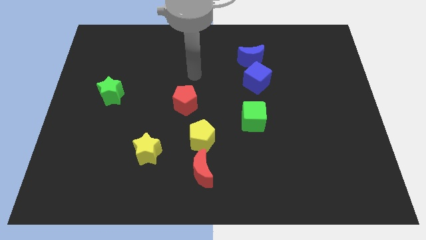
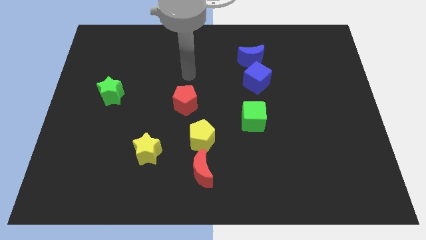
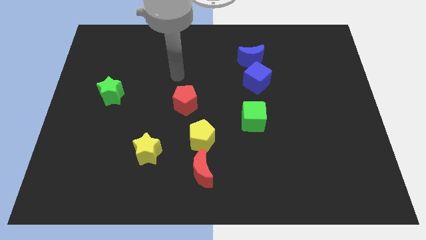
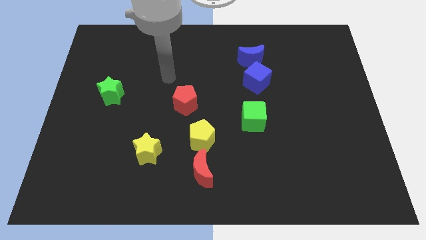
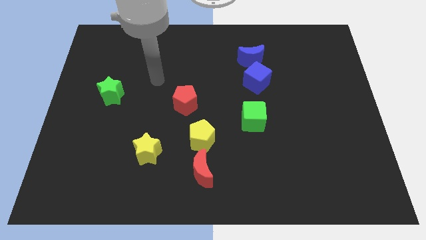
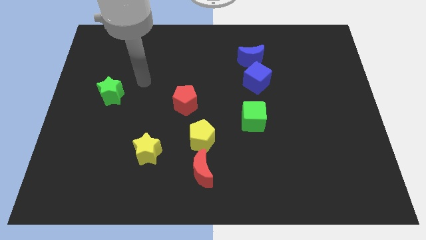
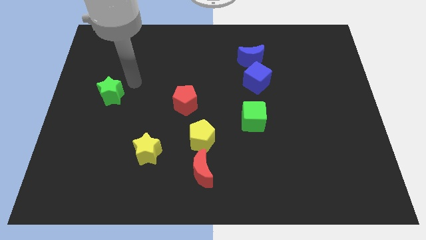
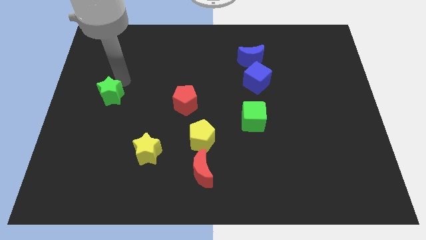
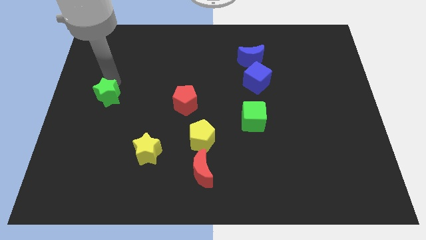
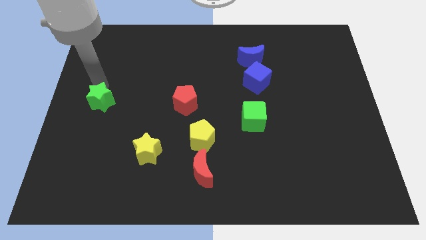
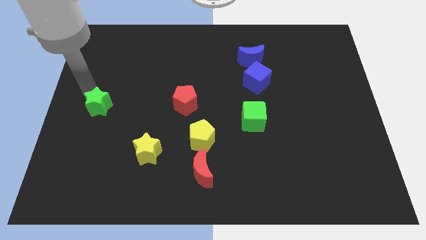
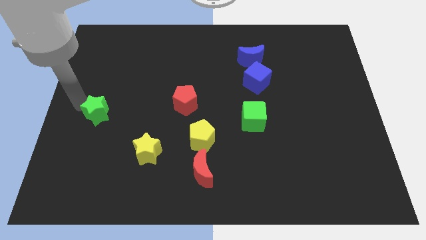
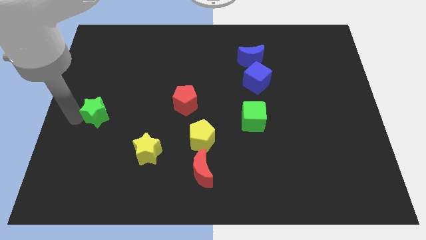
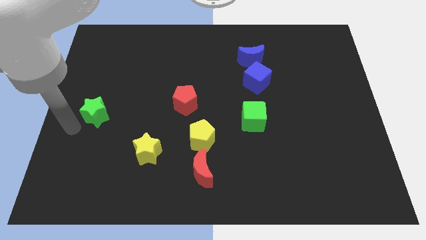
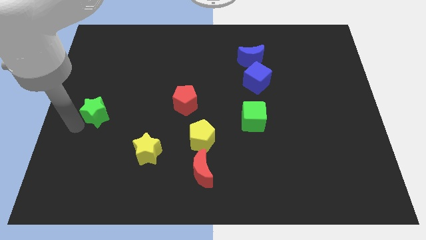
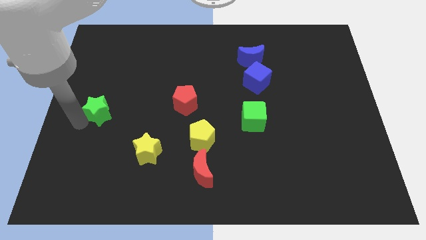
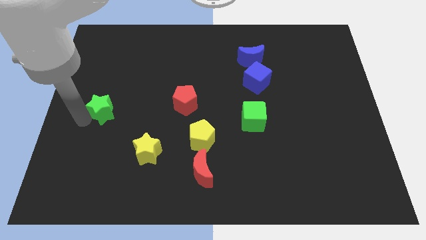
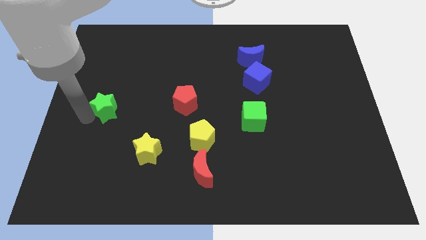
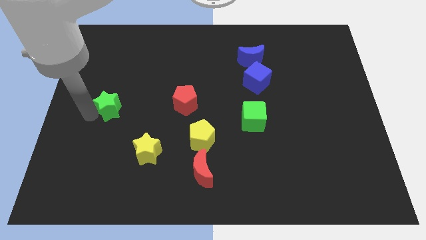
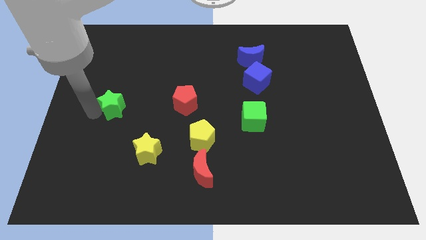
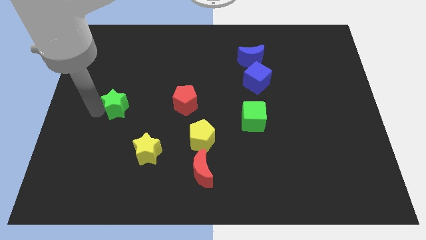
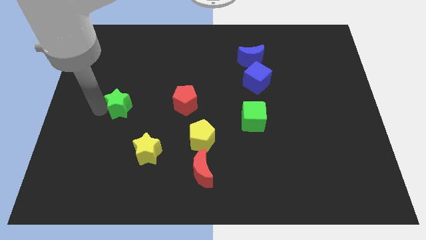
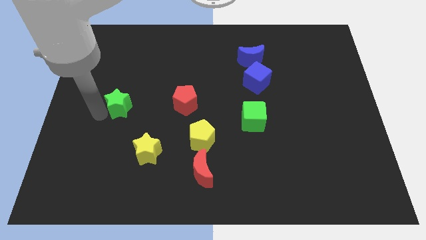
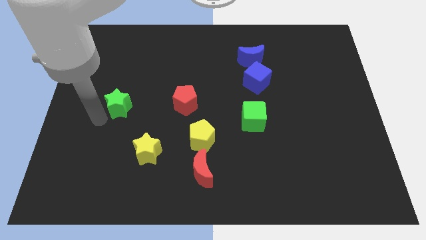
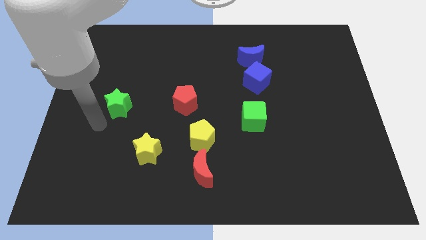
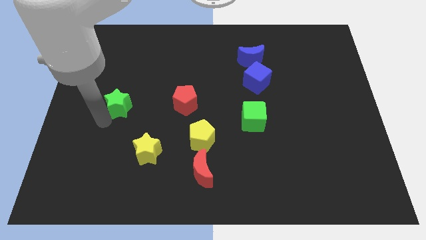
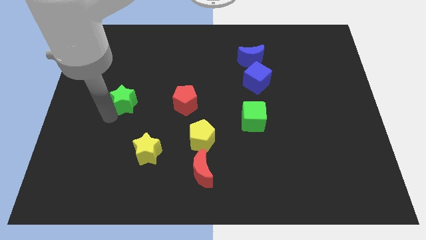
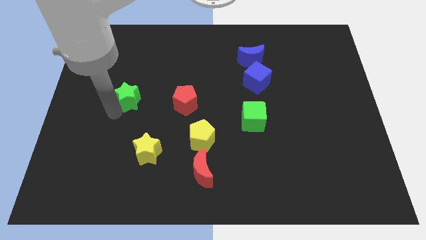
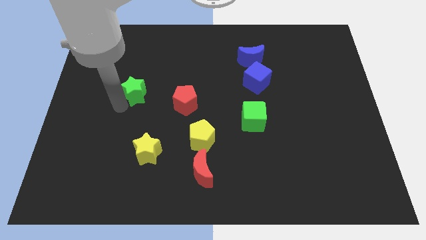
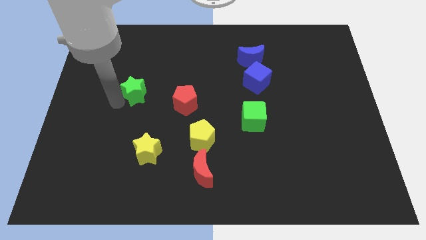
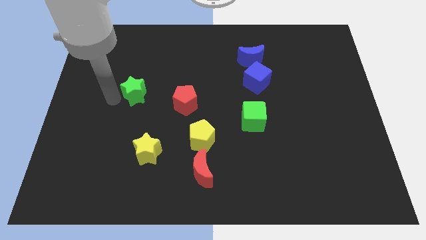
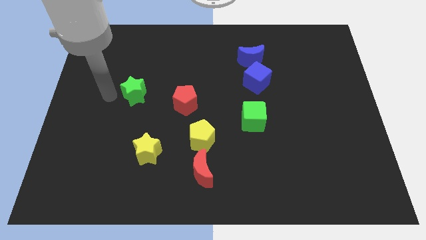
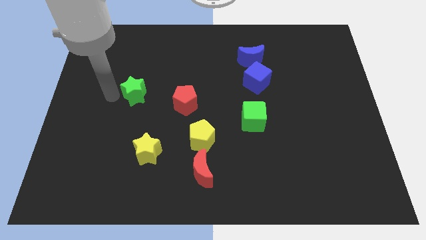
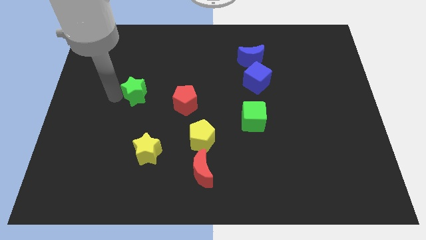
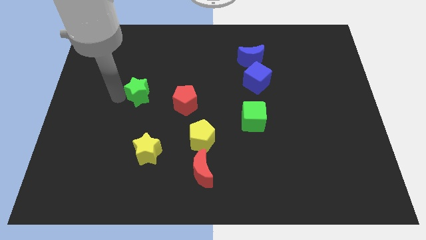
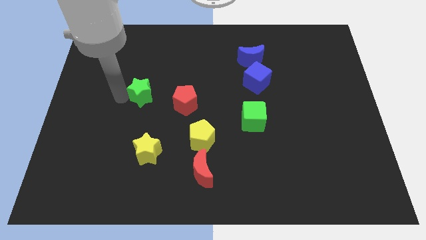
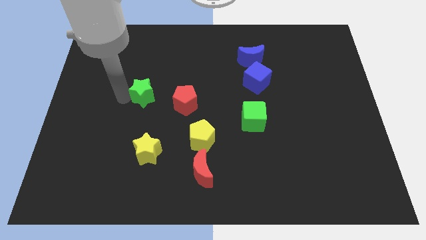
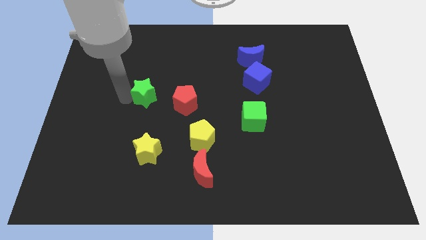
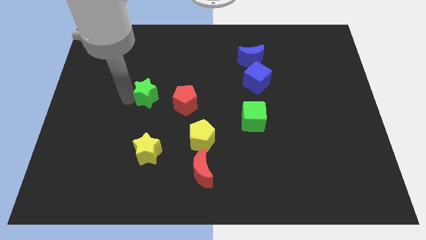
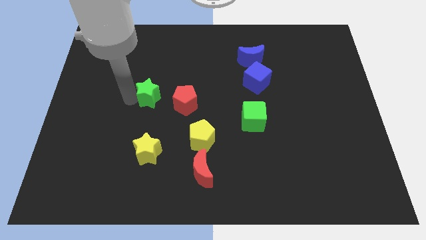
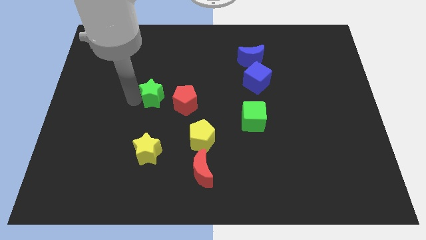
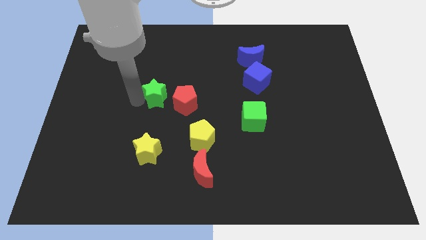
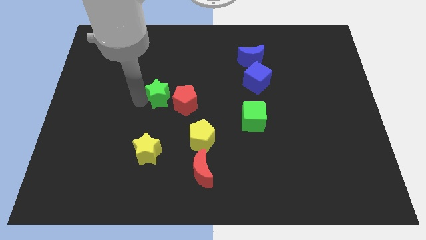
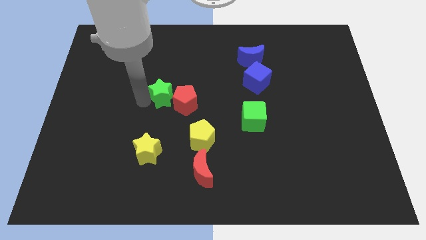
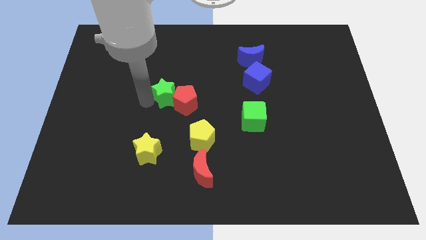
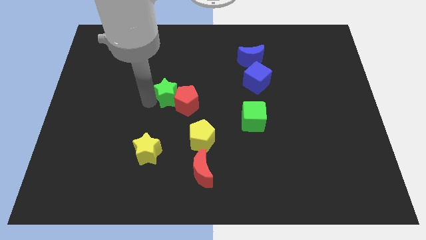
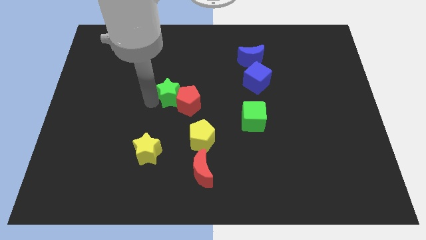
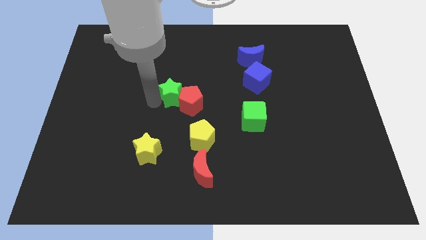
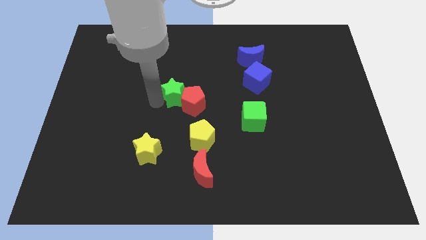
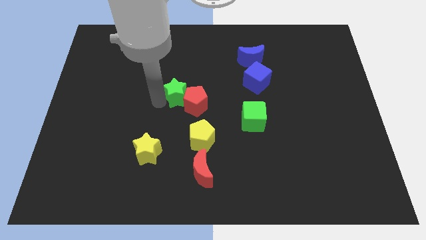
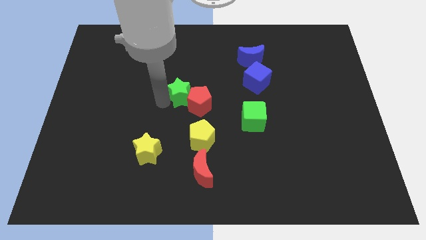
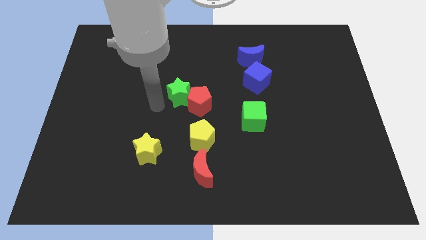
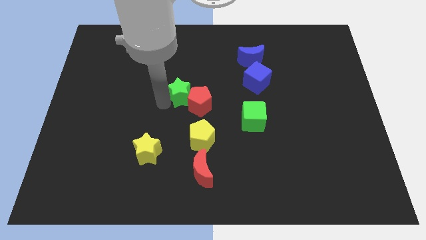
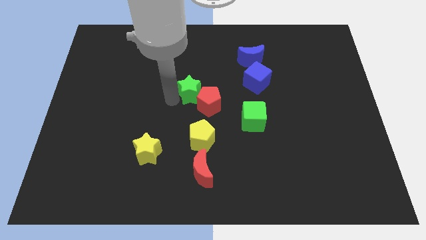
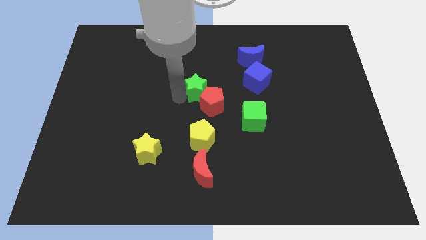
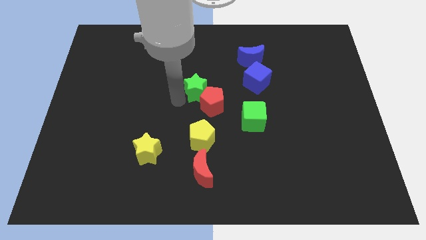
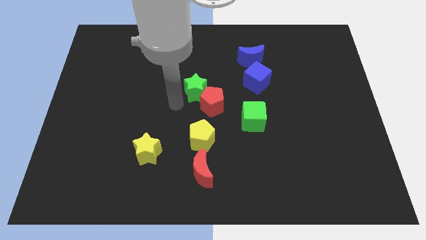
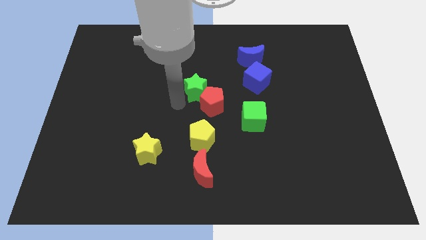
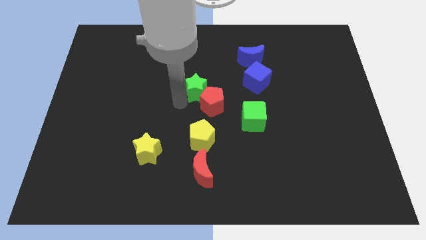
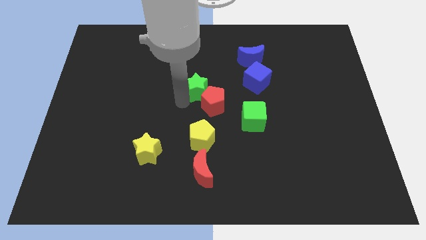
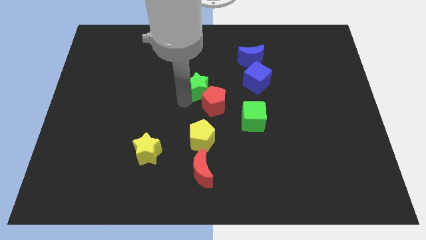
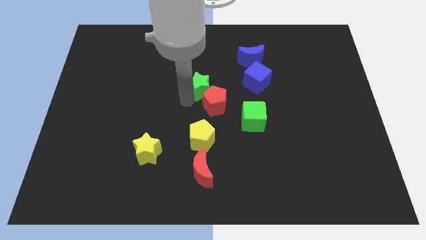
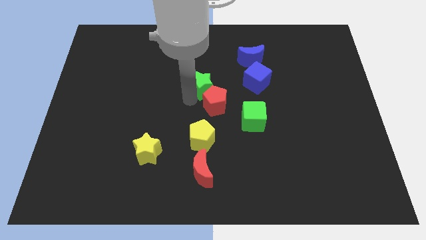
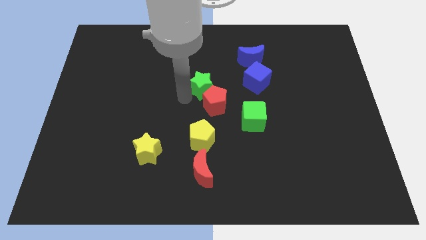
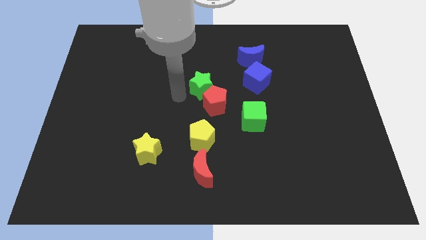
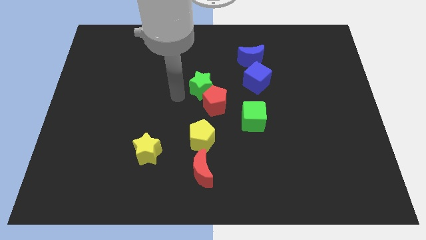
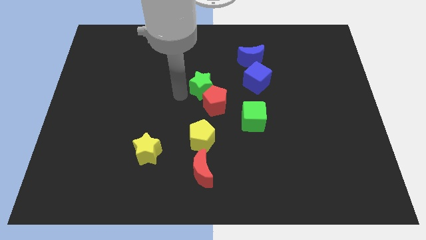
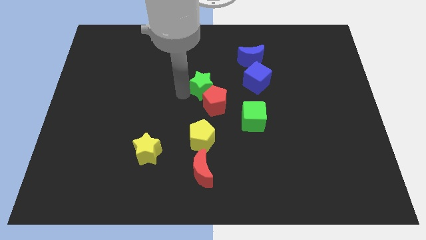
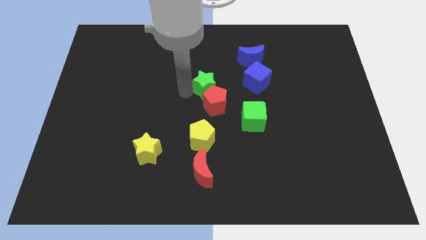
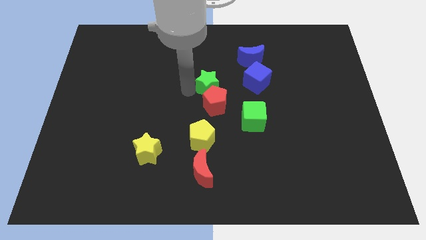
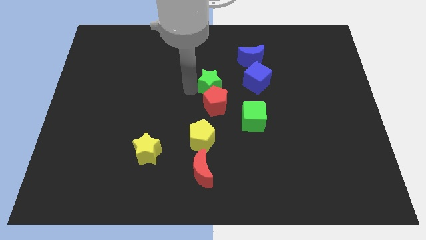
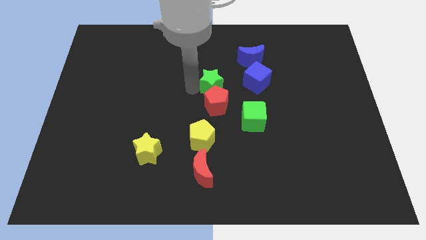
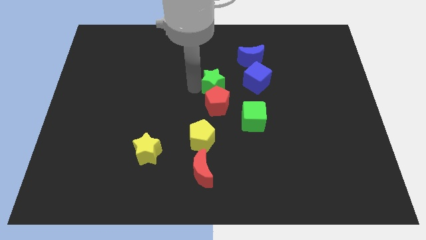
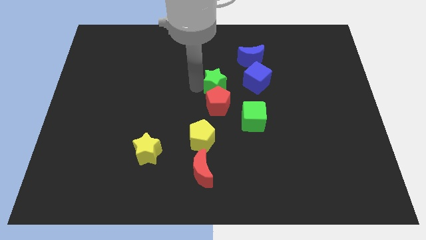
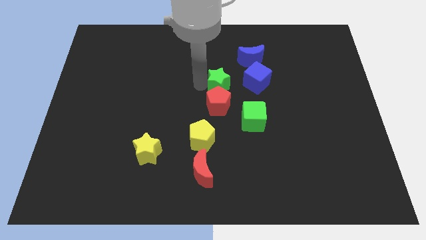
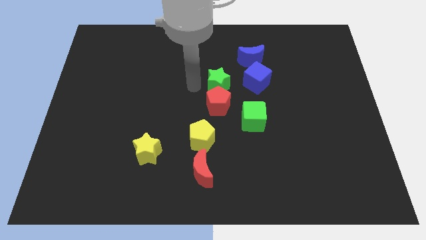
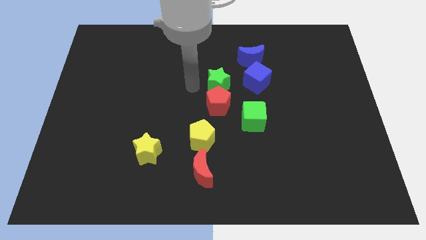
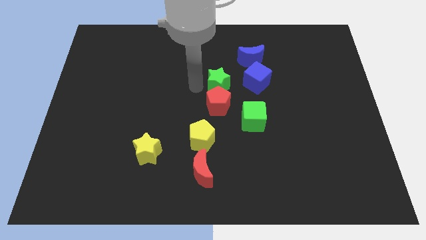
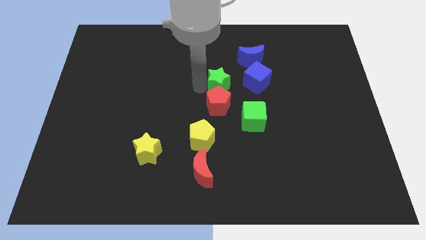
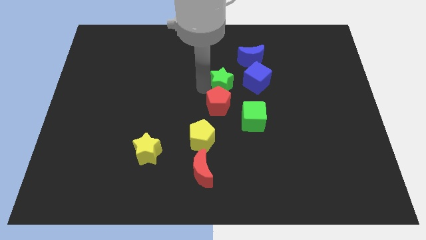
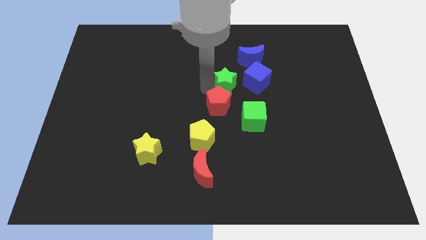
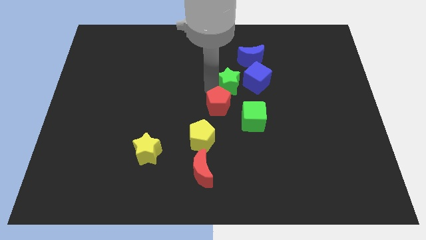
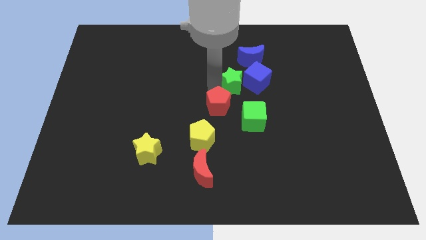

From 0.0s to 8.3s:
move the green star to the blue cube
